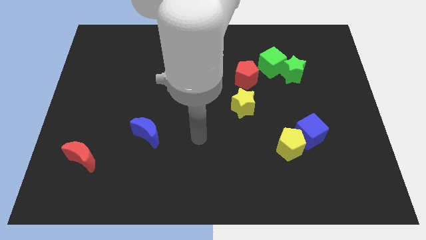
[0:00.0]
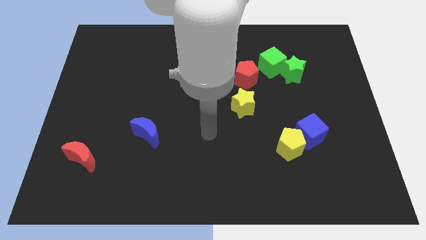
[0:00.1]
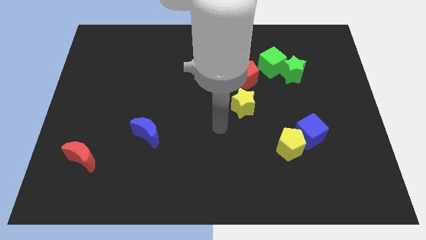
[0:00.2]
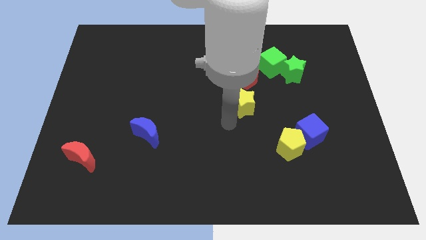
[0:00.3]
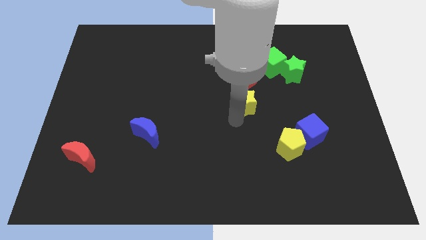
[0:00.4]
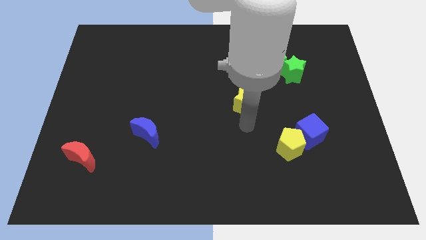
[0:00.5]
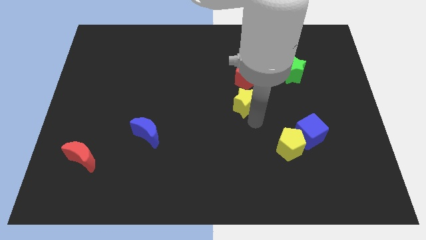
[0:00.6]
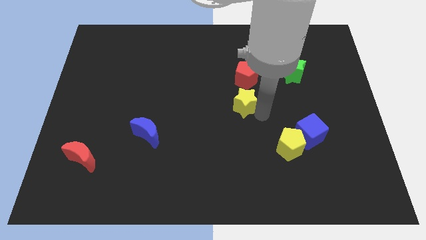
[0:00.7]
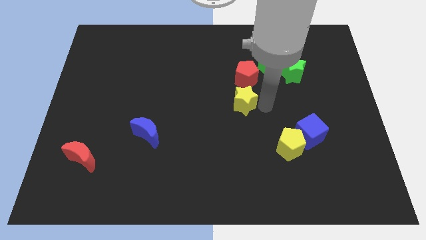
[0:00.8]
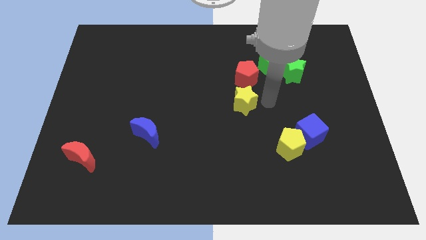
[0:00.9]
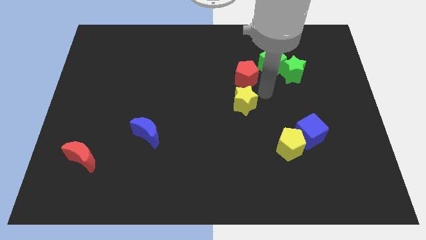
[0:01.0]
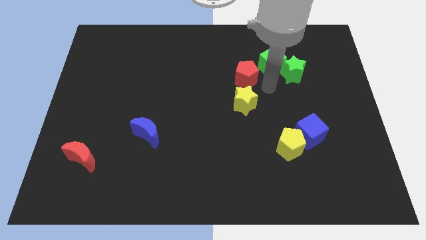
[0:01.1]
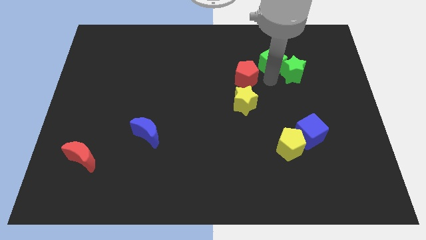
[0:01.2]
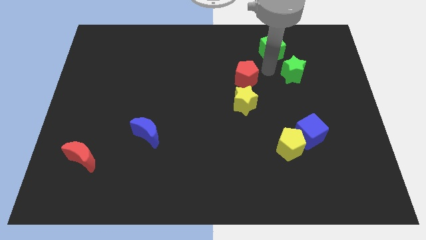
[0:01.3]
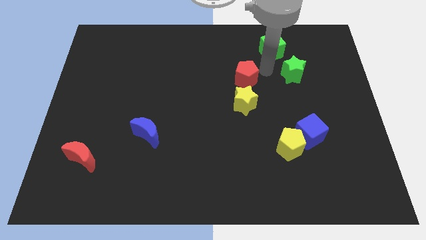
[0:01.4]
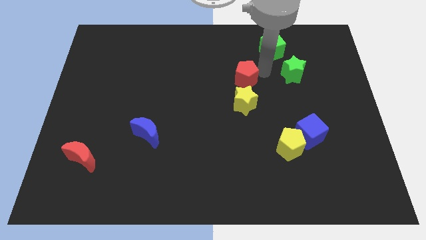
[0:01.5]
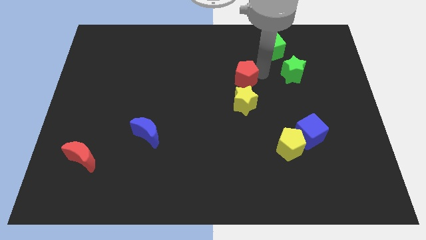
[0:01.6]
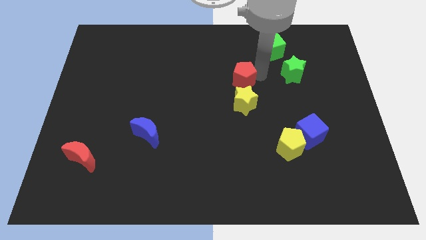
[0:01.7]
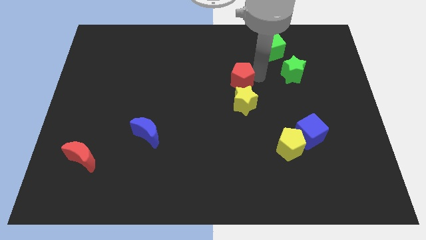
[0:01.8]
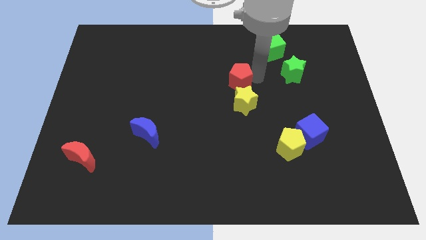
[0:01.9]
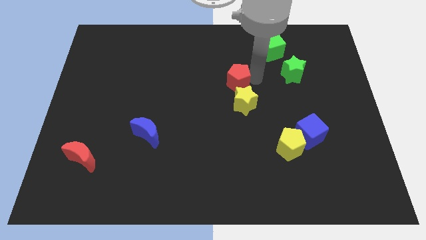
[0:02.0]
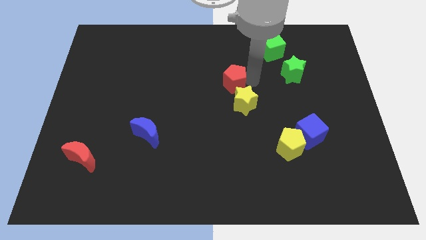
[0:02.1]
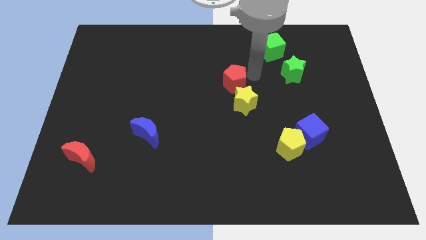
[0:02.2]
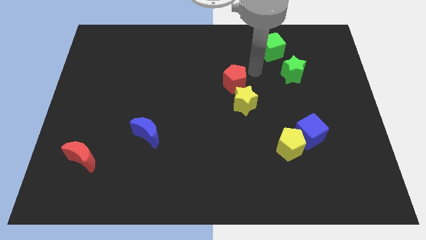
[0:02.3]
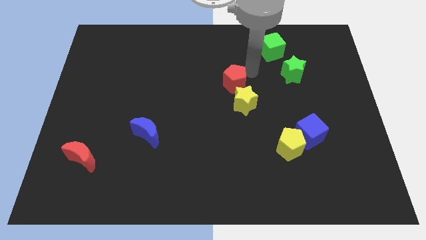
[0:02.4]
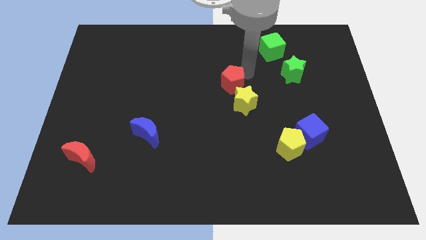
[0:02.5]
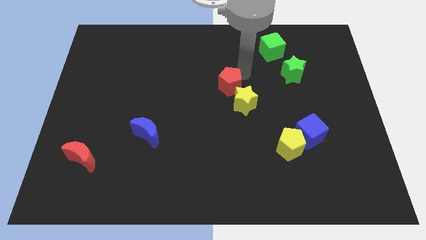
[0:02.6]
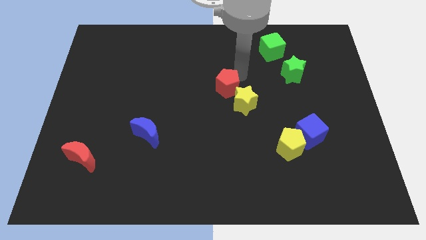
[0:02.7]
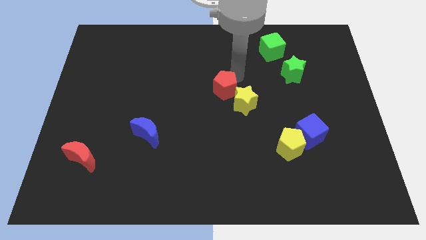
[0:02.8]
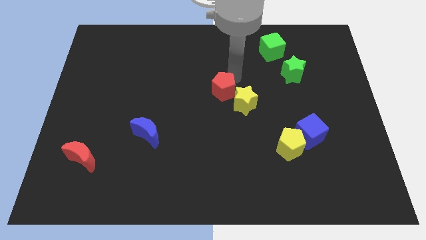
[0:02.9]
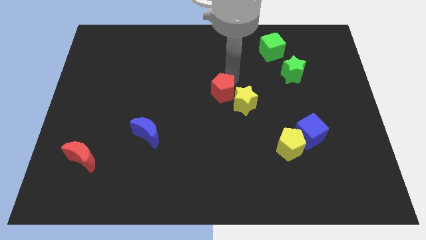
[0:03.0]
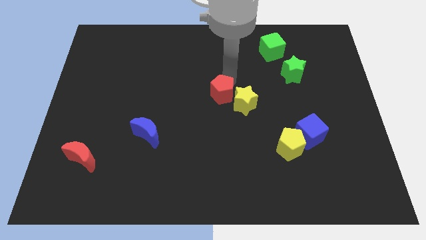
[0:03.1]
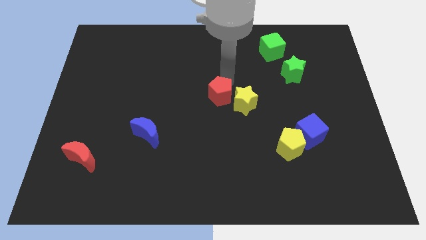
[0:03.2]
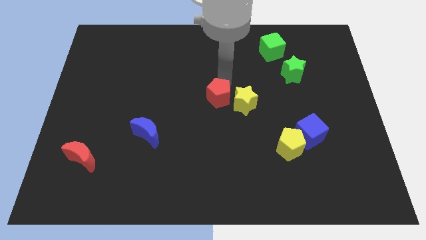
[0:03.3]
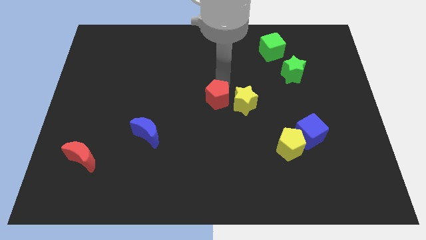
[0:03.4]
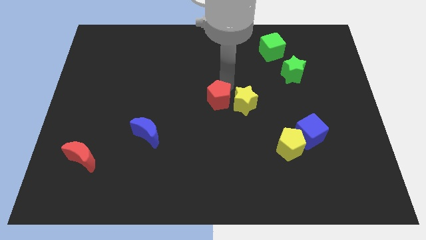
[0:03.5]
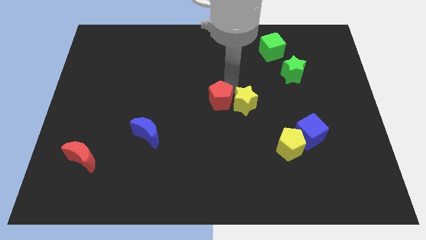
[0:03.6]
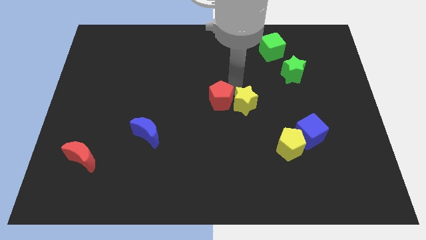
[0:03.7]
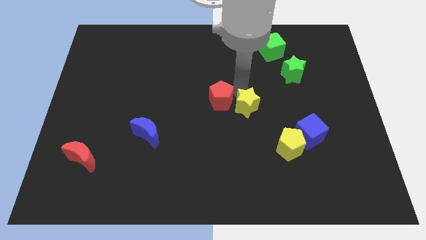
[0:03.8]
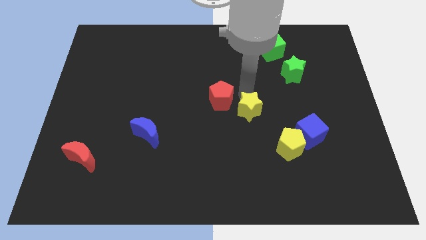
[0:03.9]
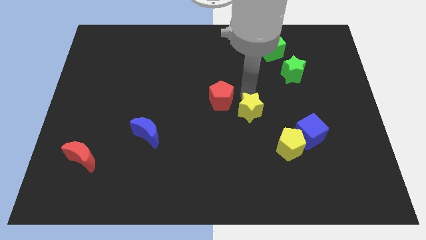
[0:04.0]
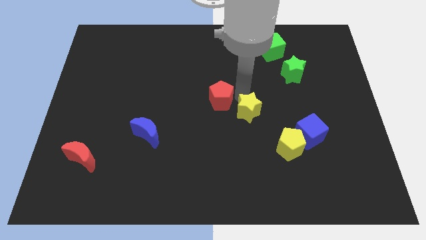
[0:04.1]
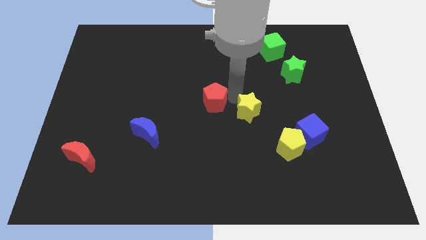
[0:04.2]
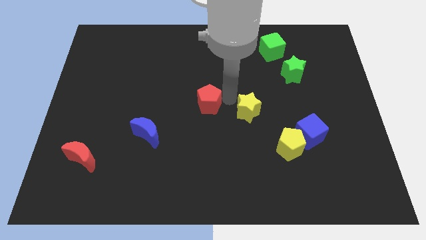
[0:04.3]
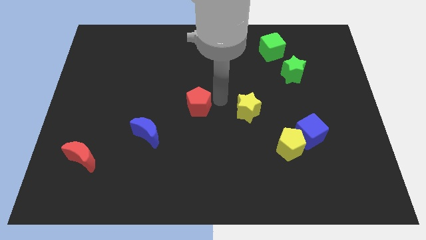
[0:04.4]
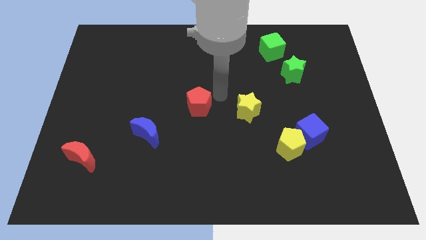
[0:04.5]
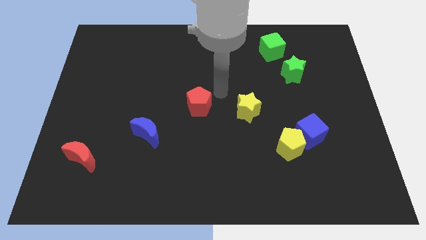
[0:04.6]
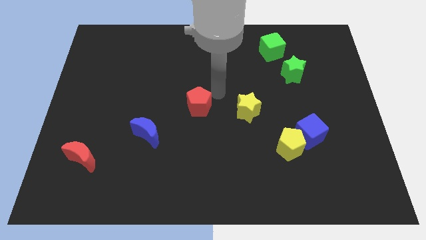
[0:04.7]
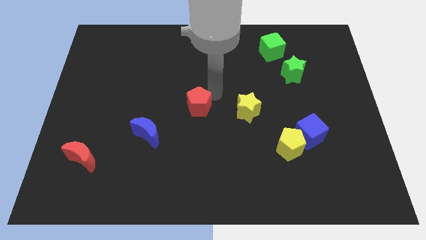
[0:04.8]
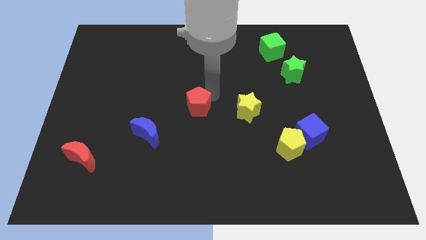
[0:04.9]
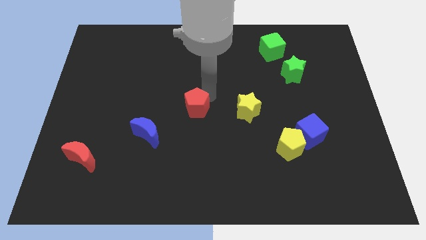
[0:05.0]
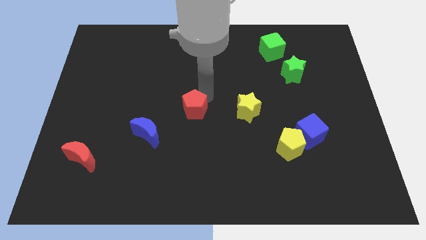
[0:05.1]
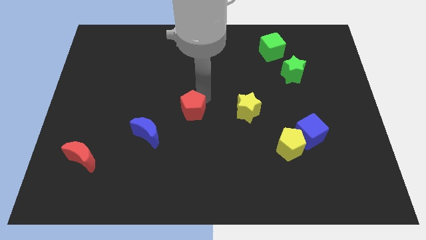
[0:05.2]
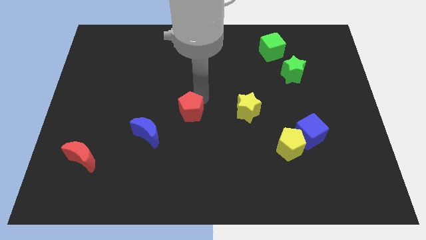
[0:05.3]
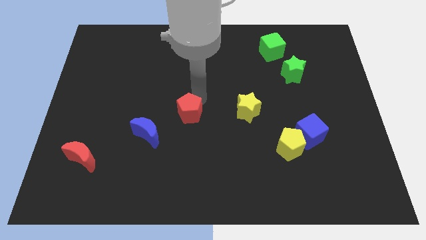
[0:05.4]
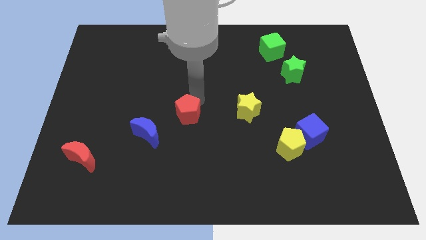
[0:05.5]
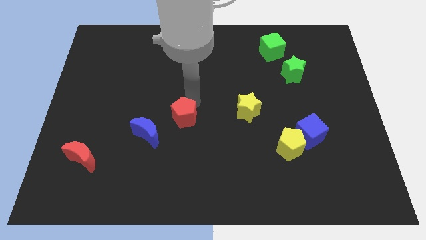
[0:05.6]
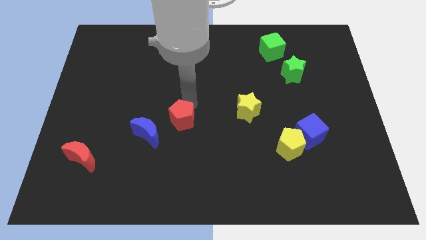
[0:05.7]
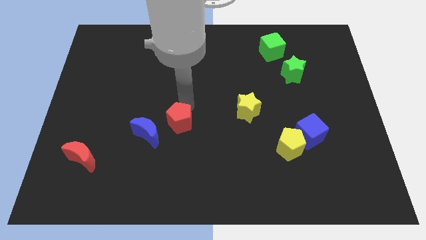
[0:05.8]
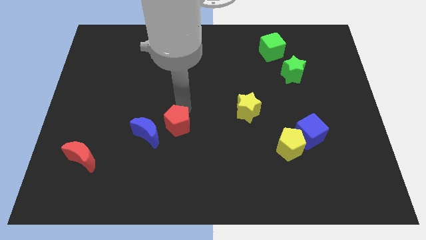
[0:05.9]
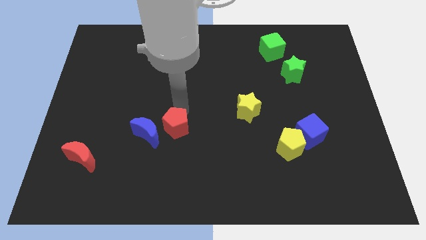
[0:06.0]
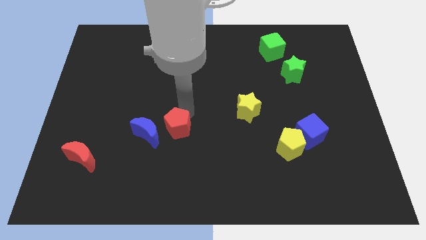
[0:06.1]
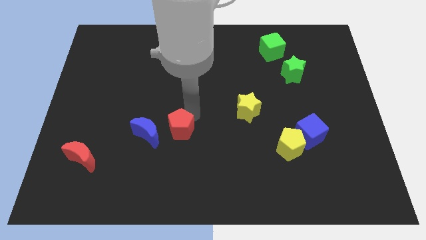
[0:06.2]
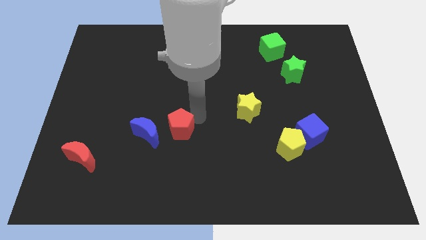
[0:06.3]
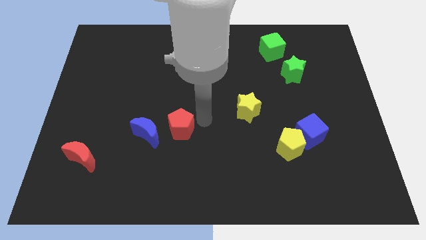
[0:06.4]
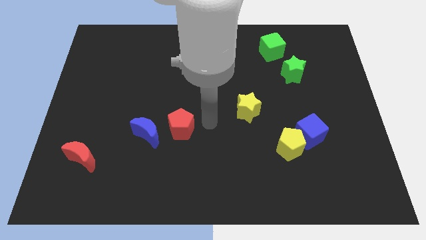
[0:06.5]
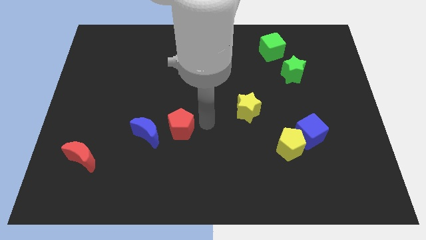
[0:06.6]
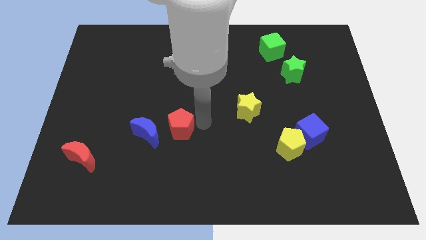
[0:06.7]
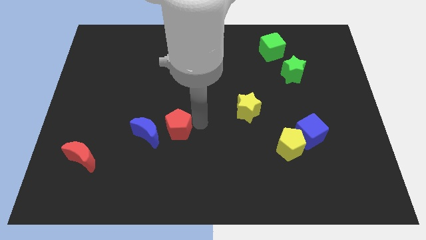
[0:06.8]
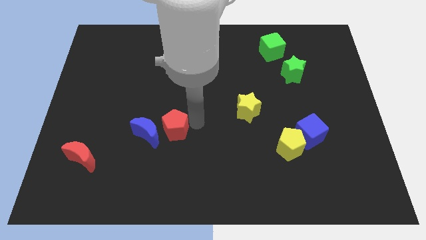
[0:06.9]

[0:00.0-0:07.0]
move the red pentagon close to the blue moon
